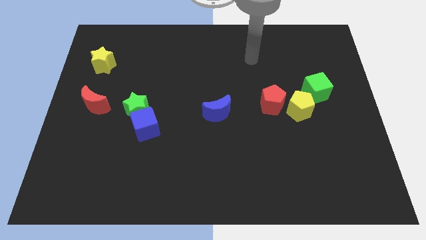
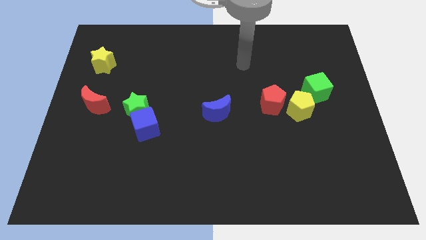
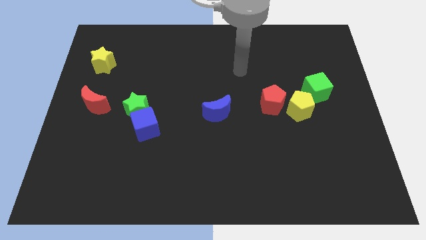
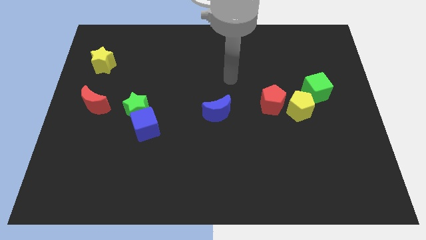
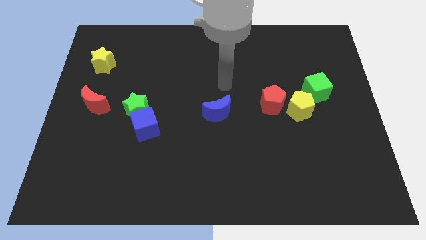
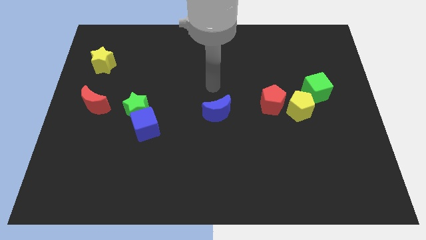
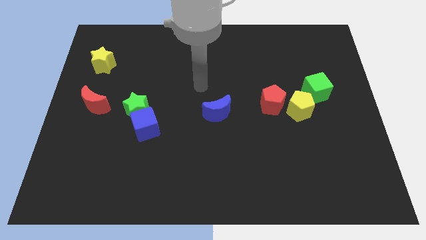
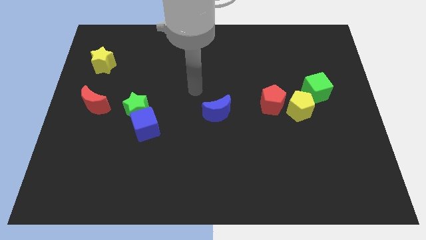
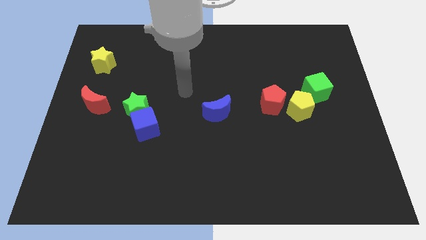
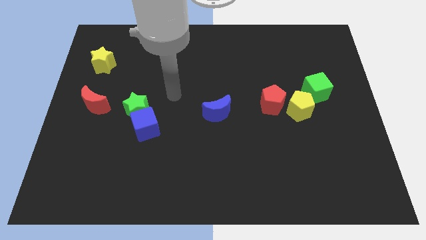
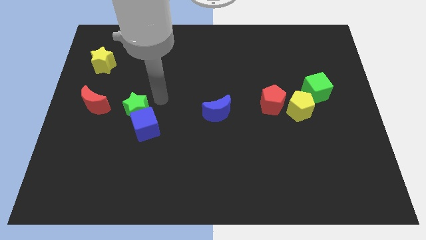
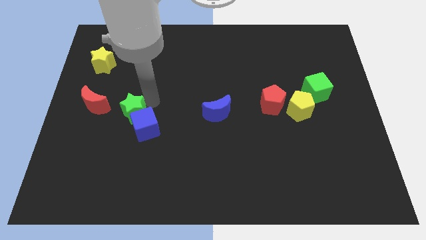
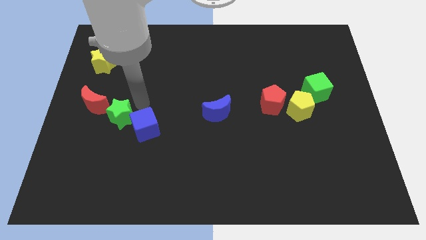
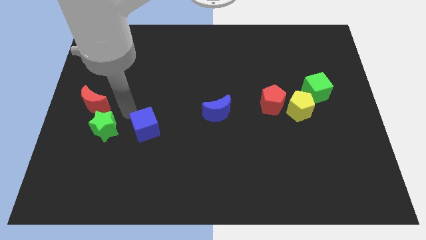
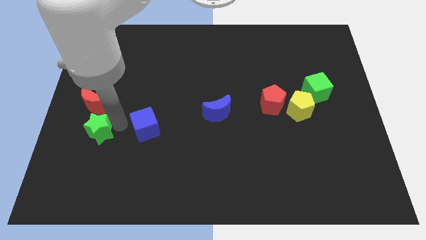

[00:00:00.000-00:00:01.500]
pull the blue cube apart from the green star

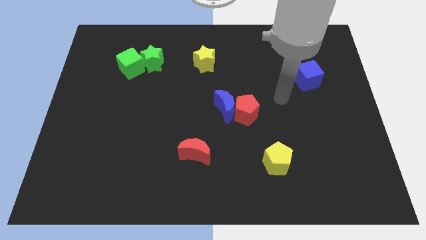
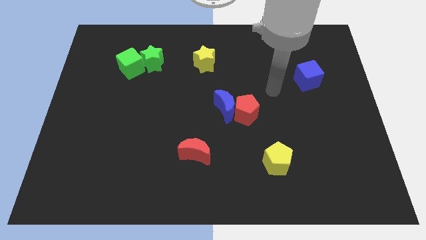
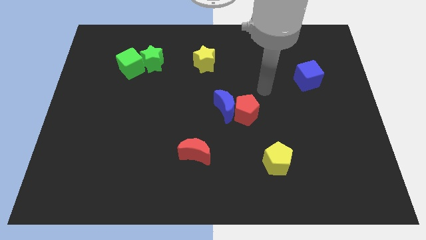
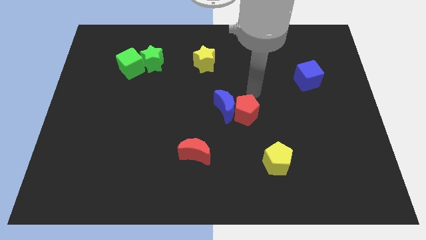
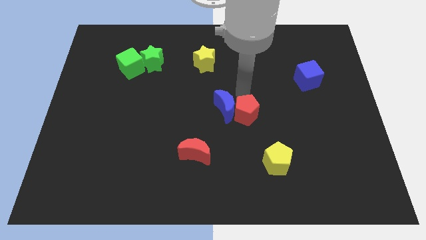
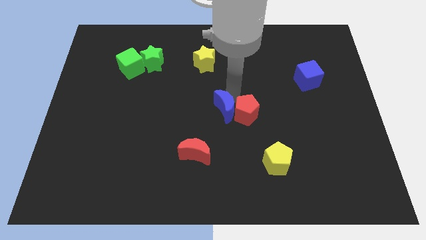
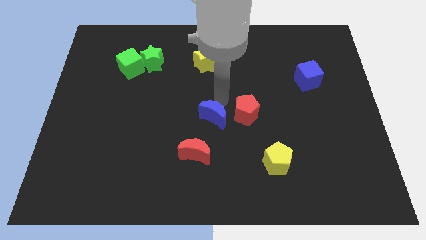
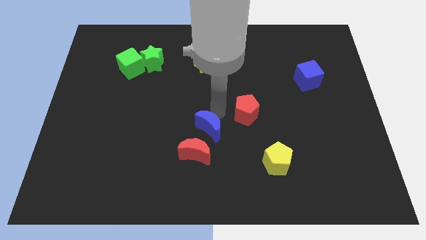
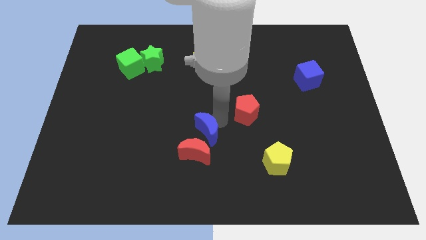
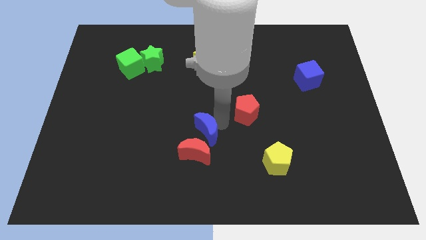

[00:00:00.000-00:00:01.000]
separate the red pentagon from the blue moon

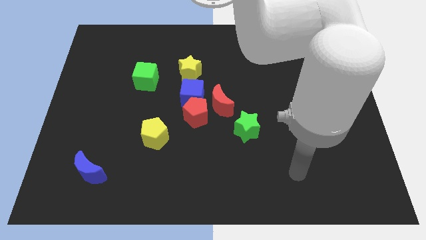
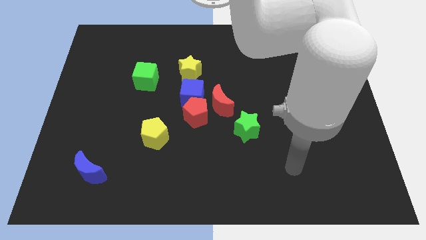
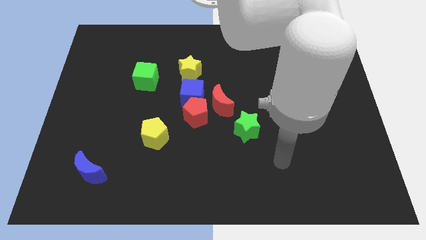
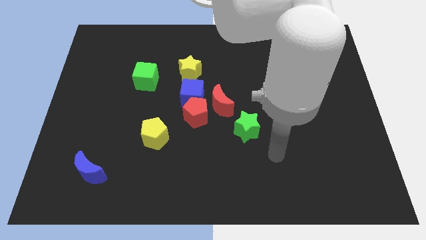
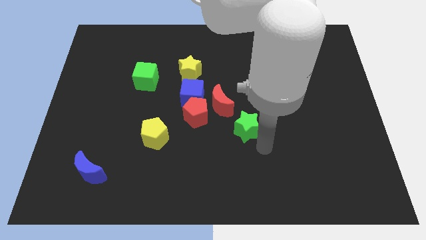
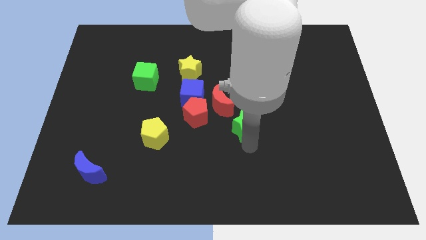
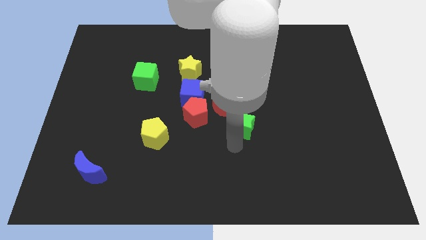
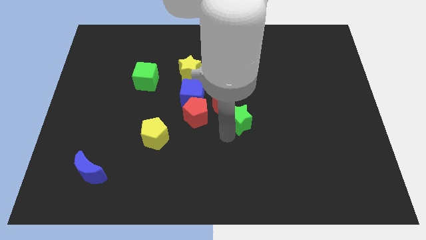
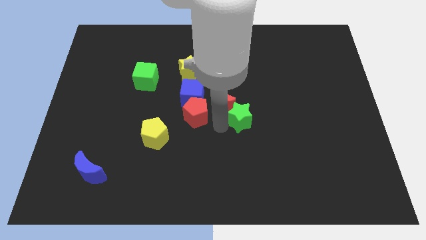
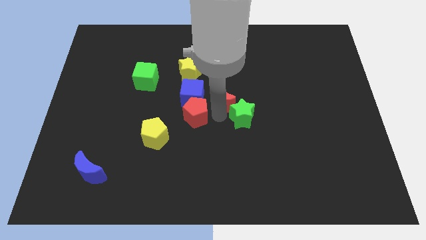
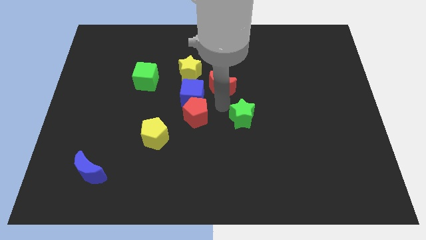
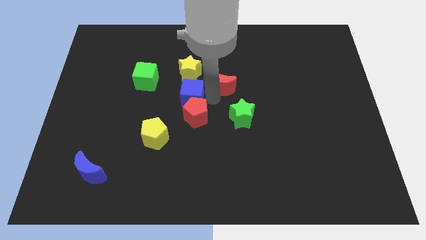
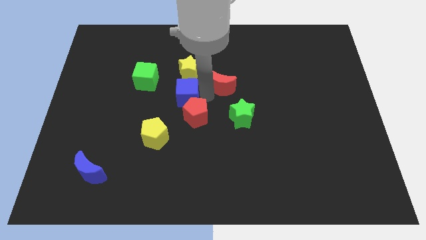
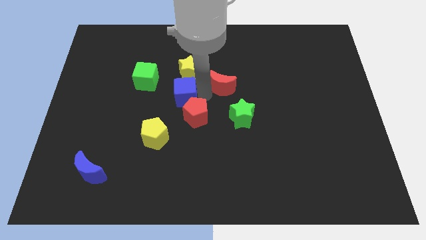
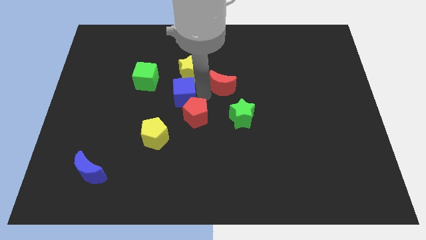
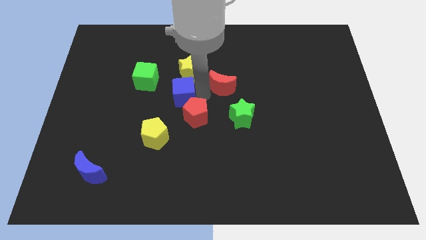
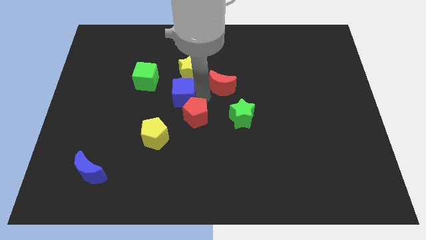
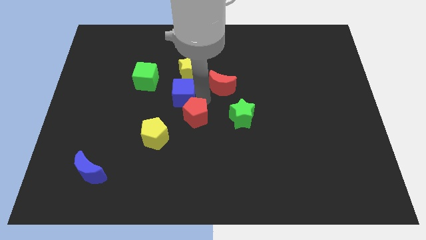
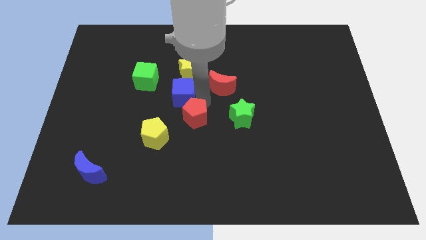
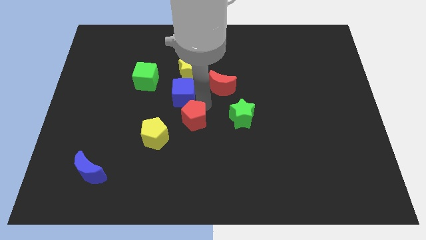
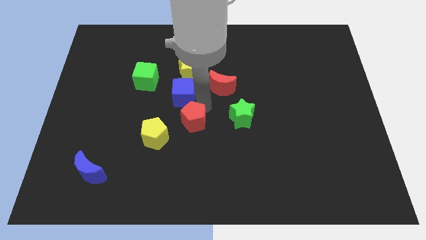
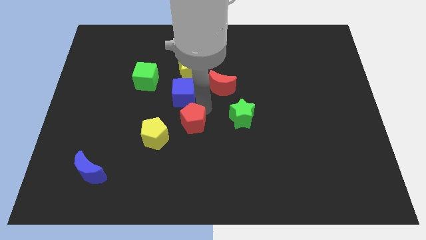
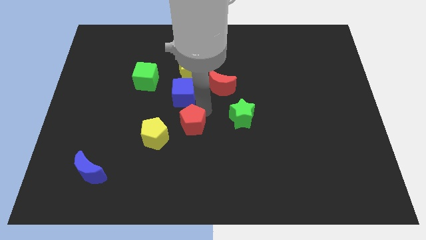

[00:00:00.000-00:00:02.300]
separate the red pentagon from the blue cube and red moon

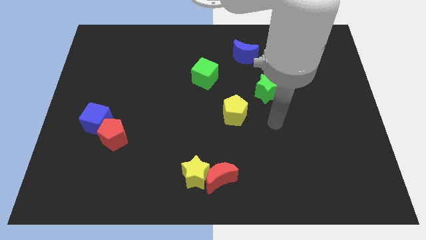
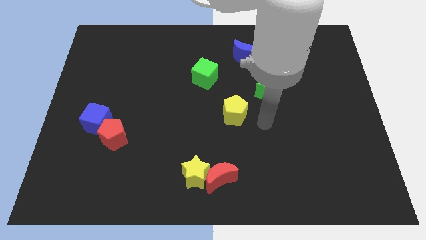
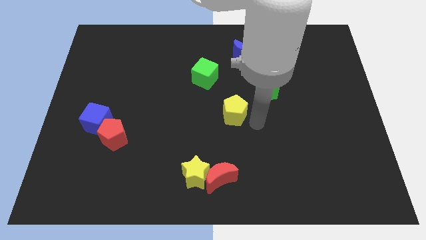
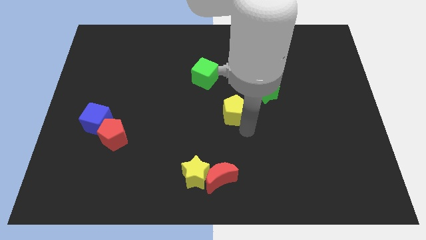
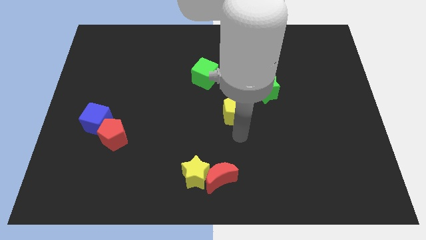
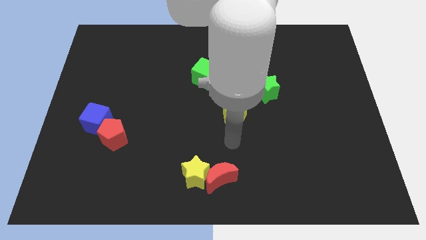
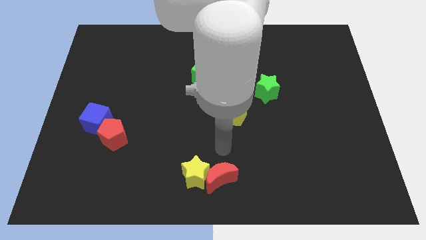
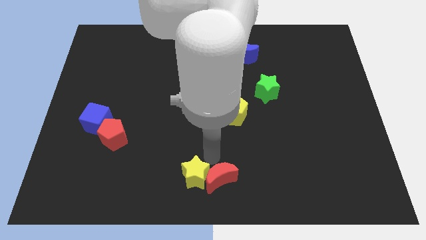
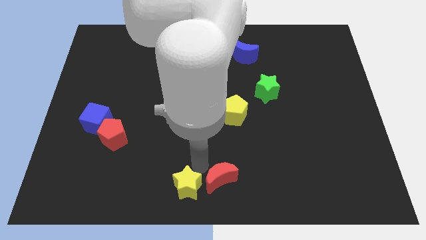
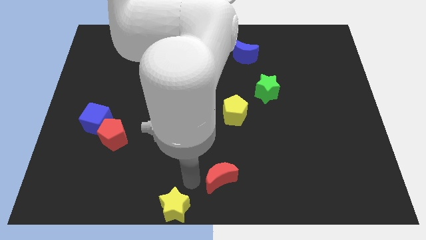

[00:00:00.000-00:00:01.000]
pull the red moon apart from the yellow star

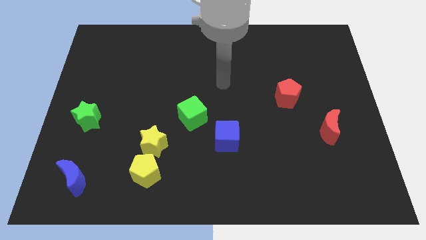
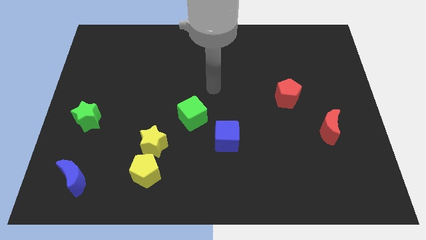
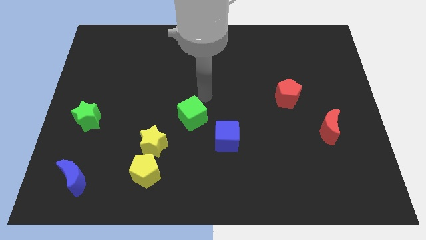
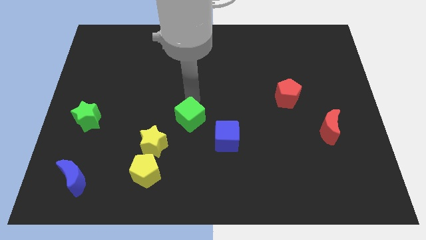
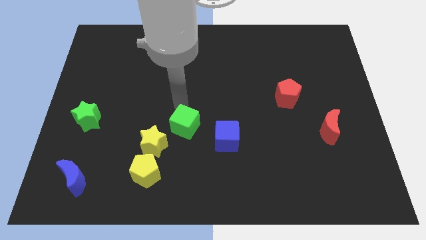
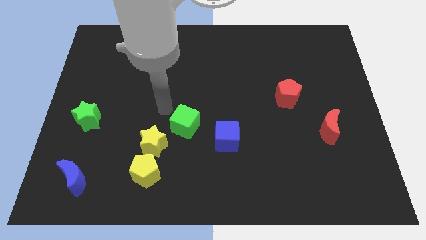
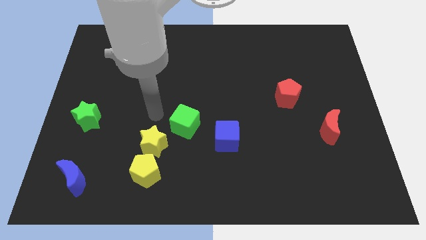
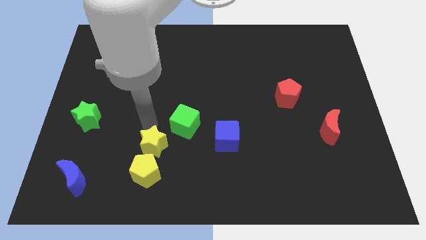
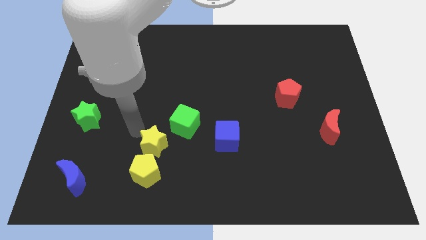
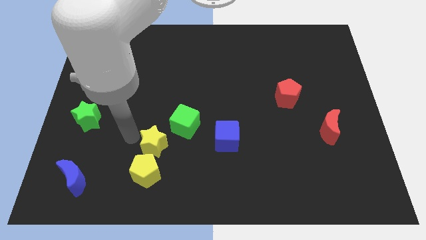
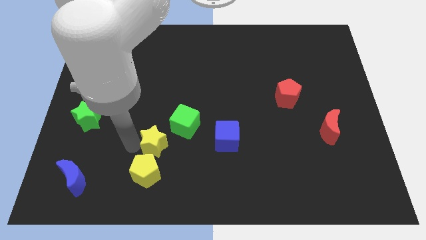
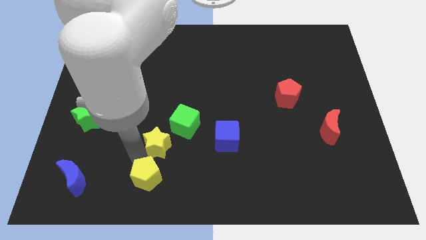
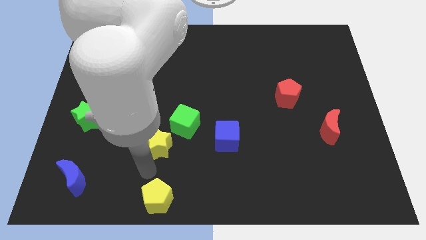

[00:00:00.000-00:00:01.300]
separate the yellow star from the yellow pentagon

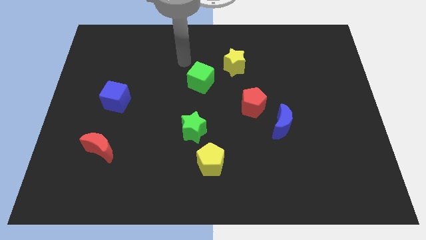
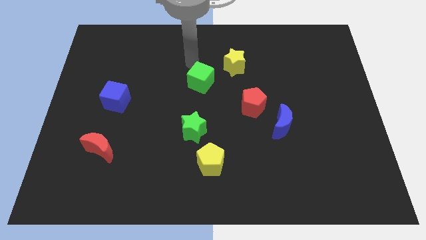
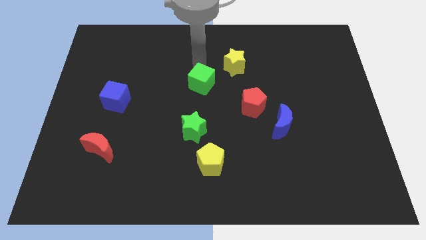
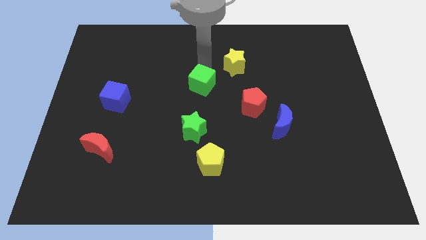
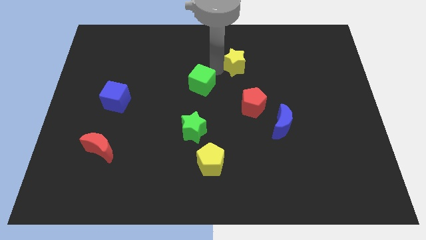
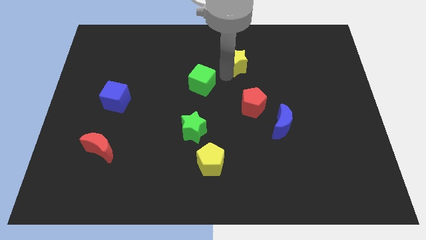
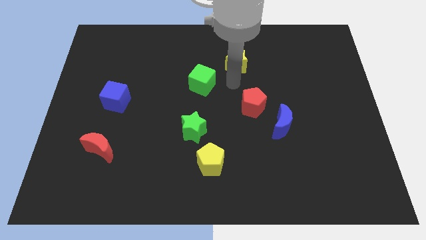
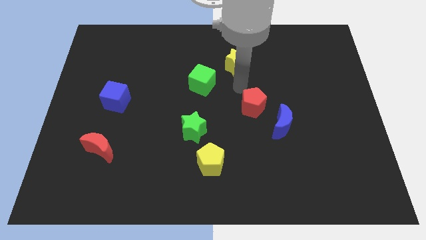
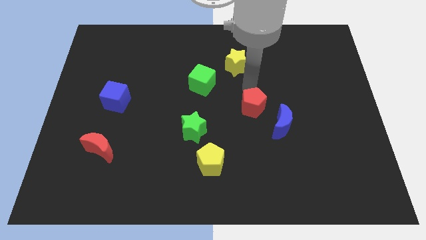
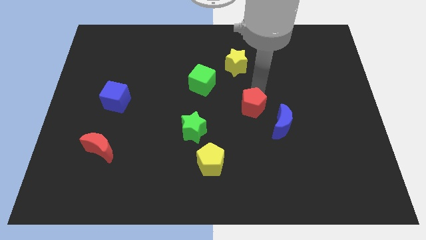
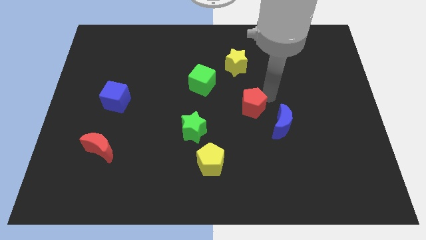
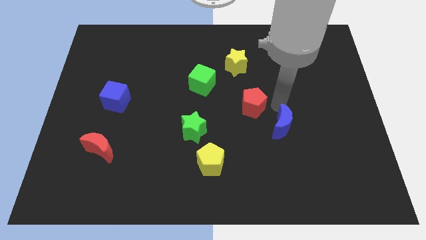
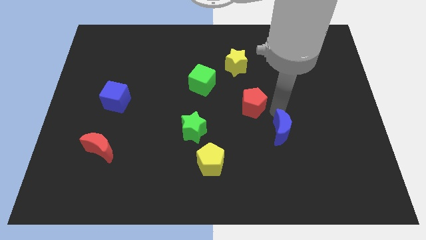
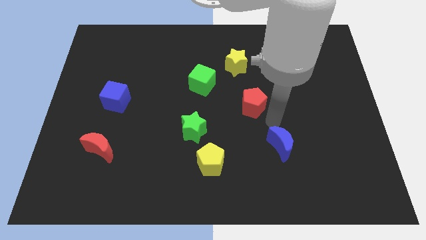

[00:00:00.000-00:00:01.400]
pull the red pentagon apart from the blue moon

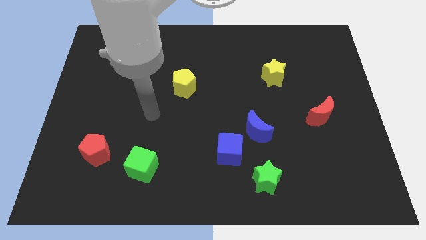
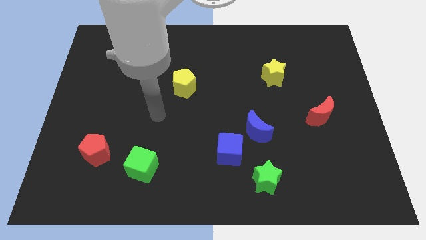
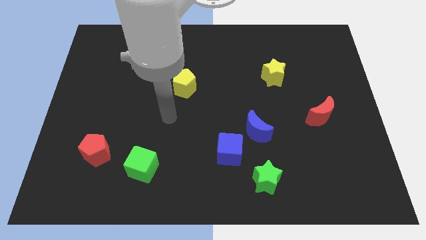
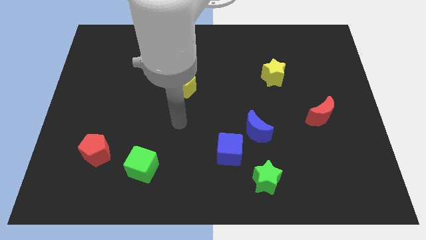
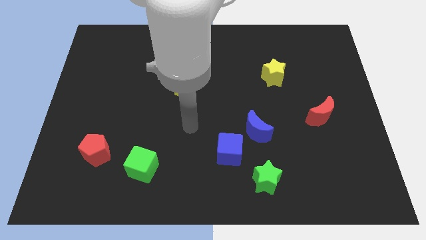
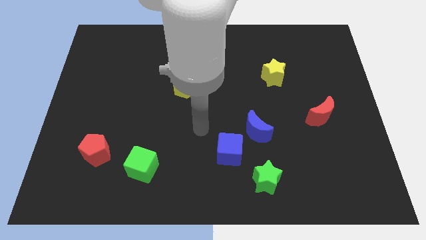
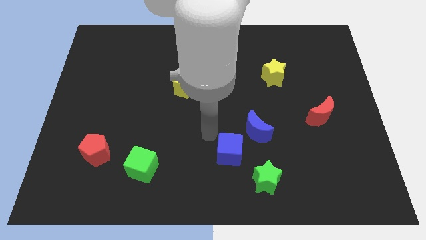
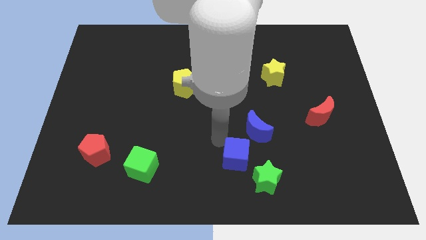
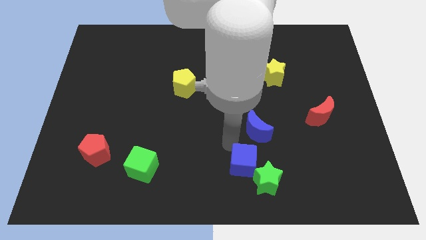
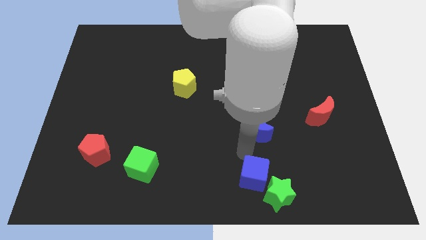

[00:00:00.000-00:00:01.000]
move the blue moon away from the blue cube
